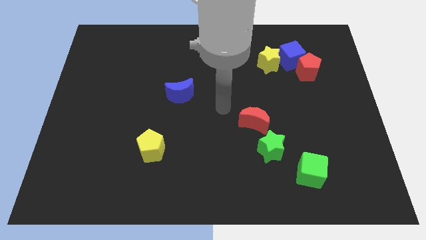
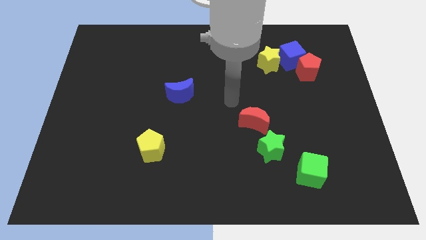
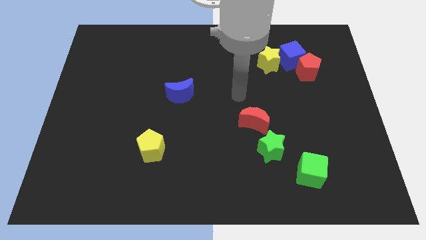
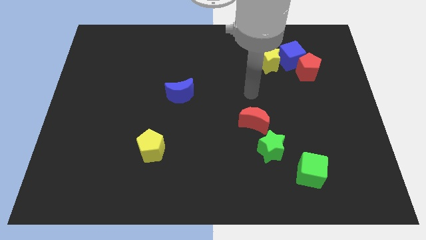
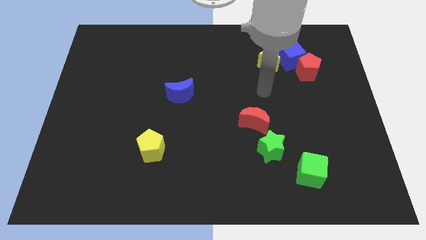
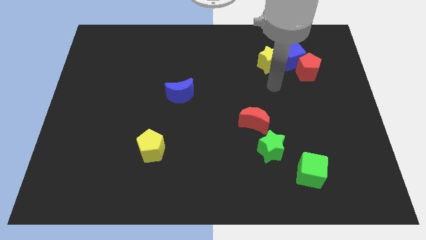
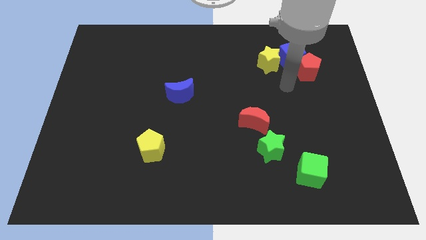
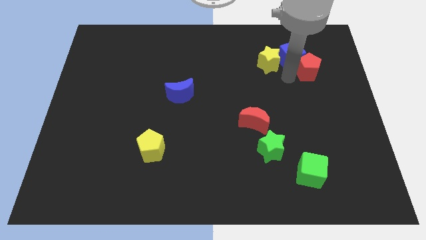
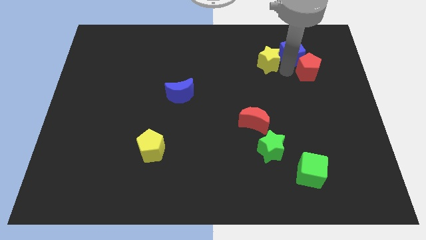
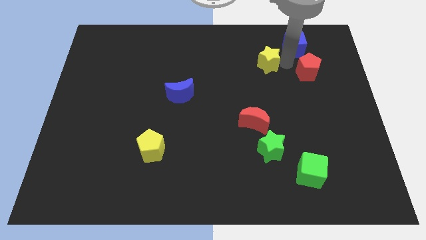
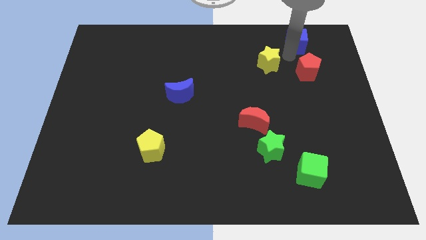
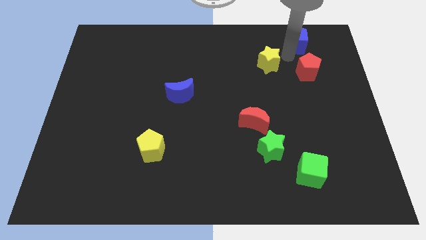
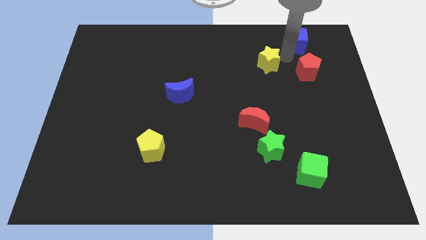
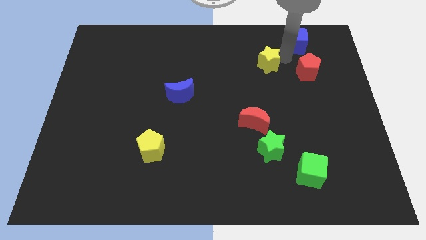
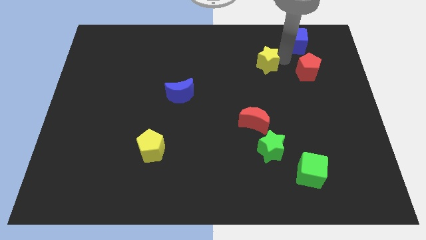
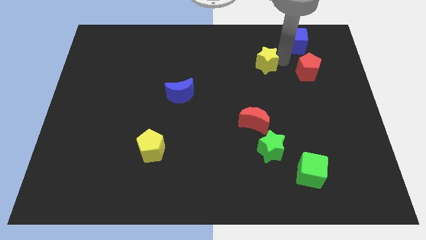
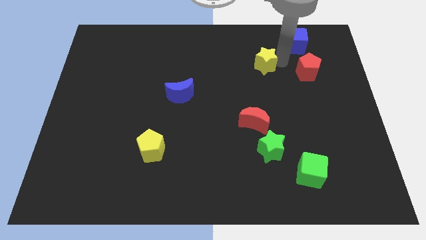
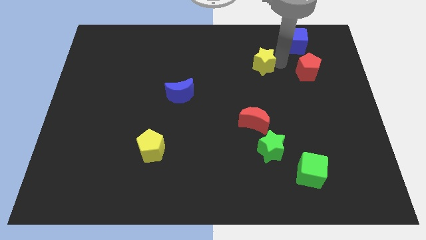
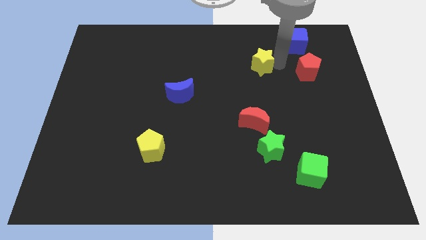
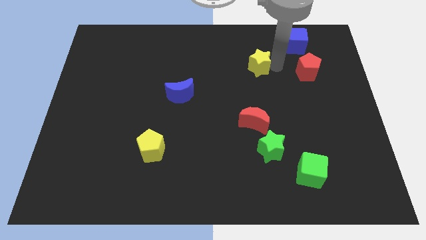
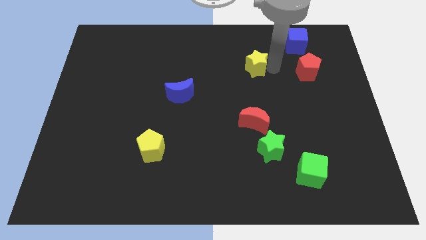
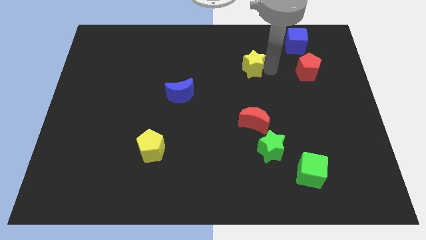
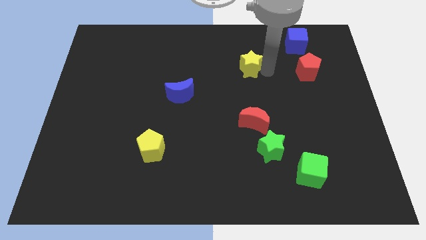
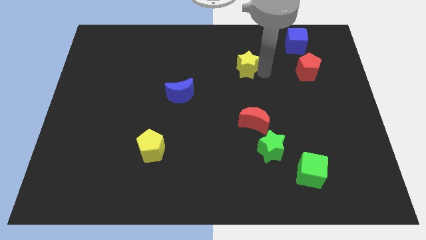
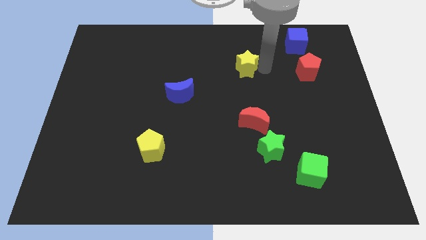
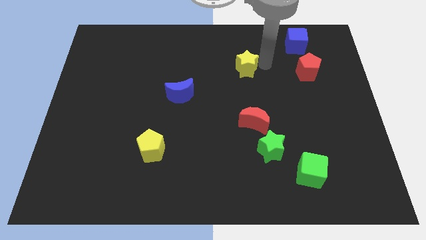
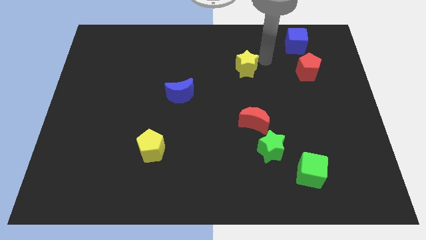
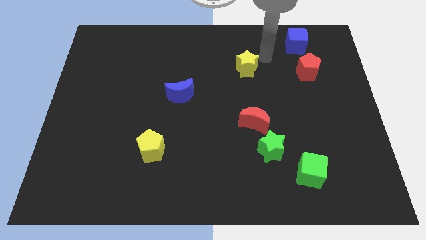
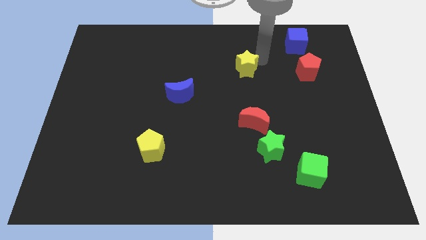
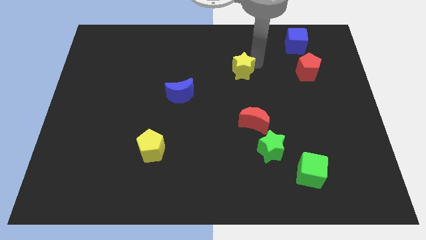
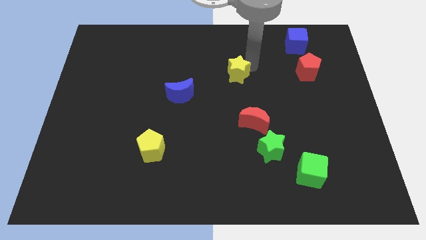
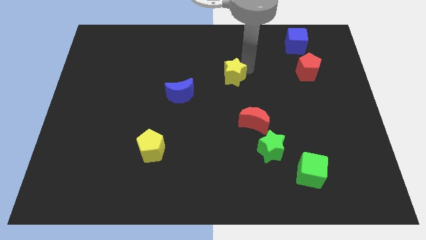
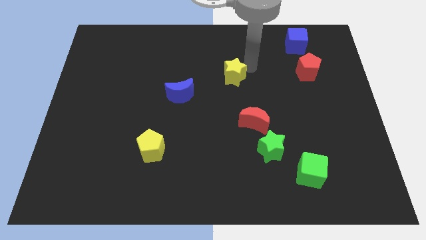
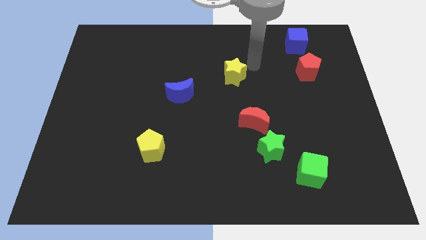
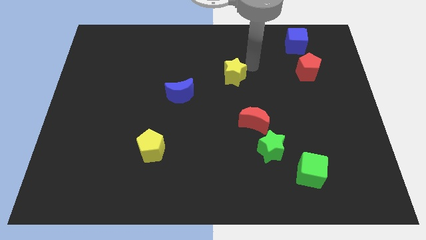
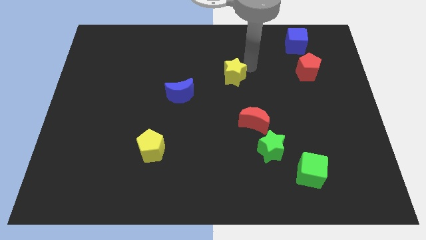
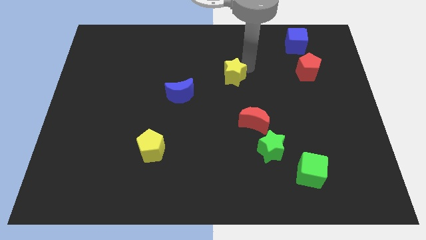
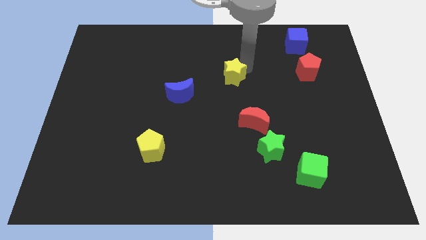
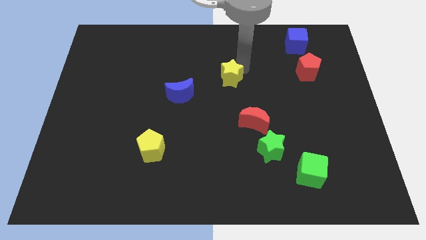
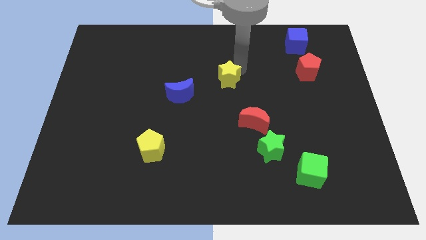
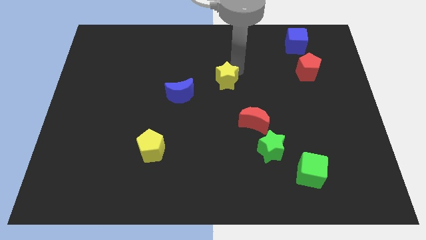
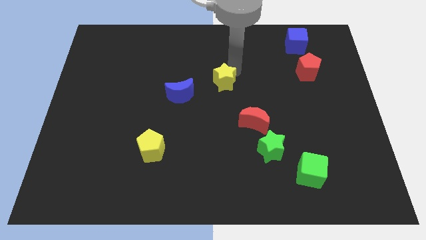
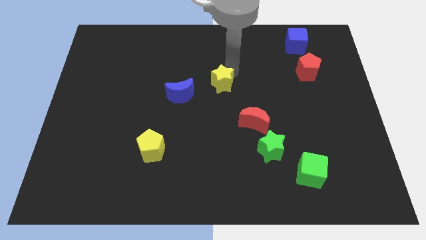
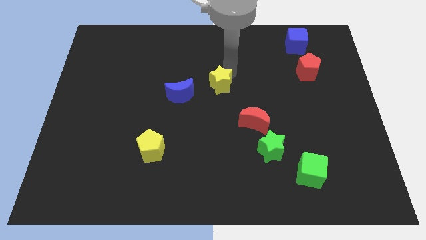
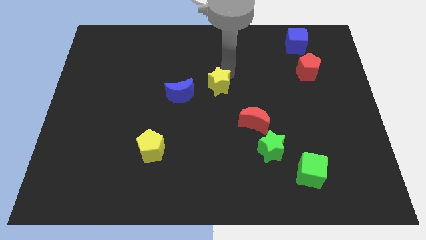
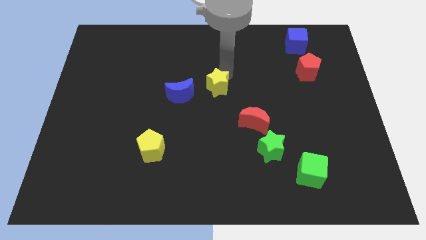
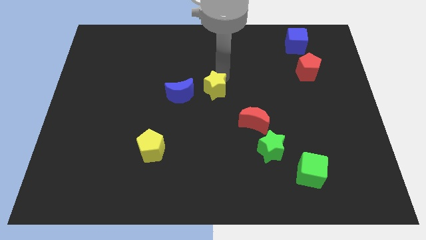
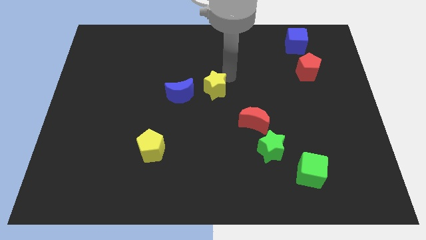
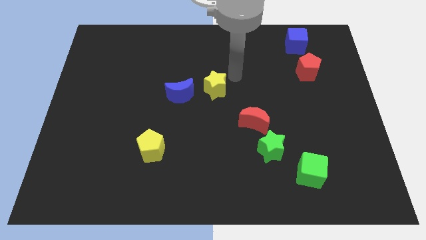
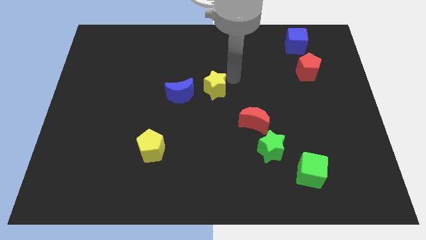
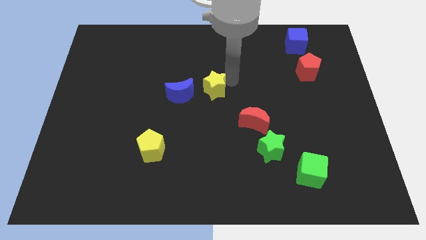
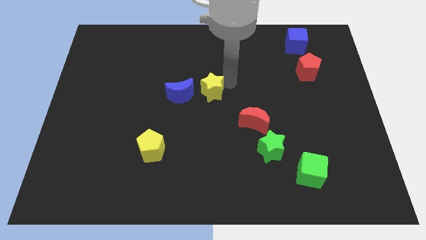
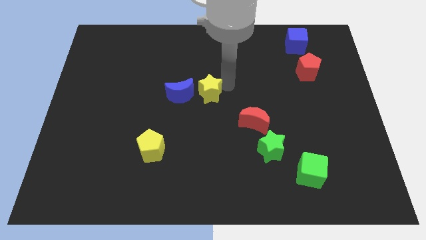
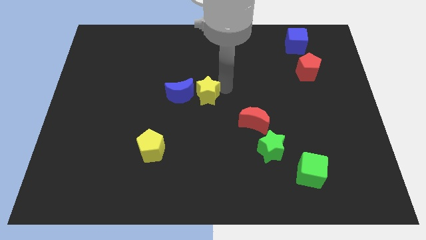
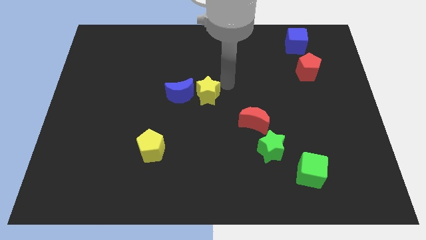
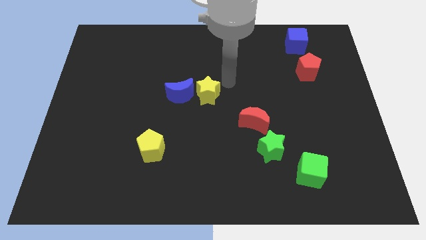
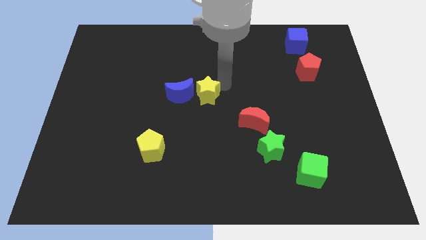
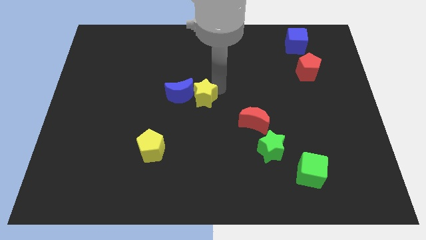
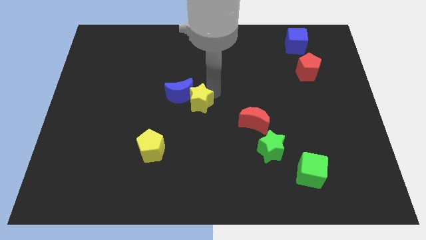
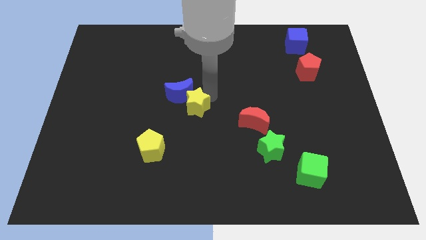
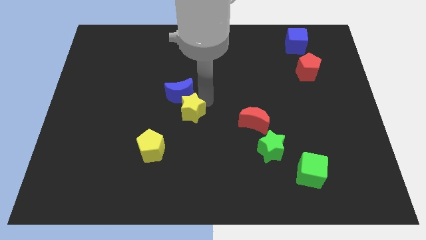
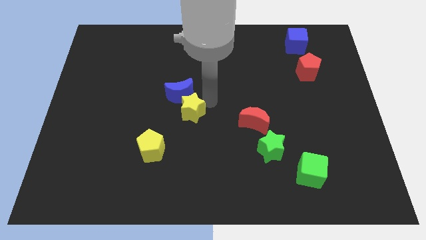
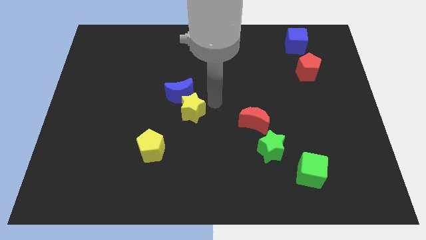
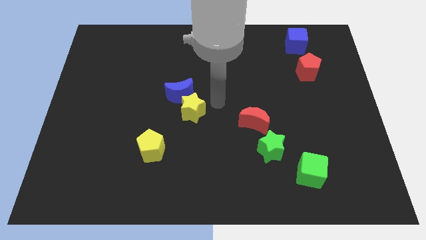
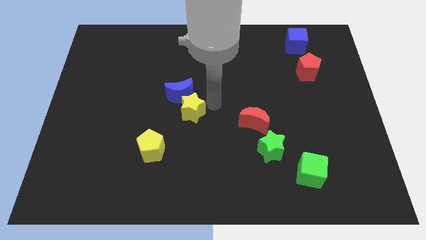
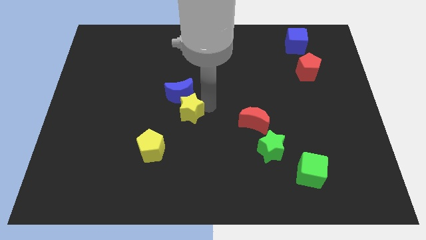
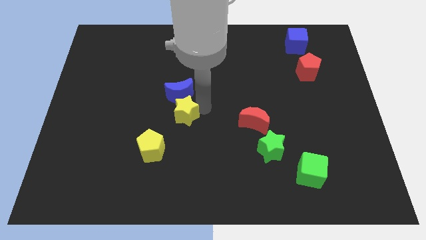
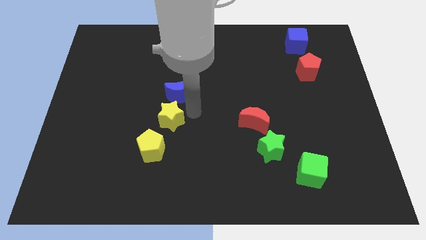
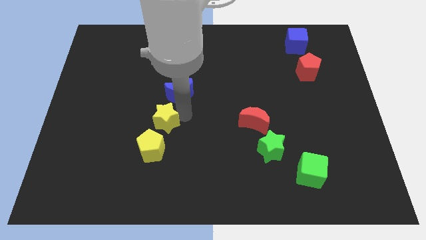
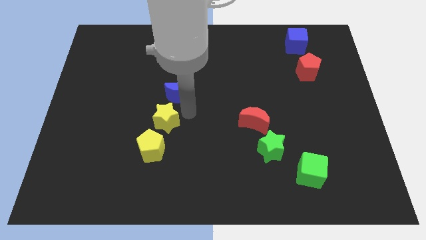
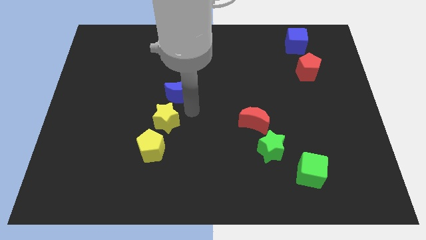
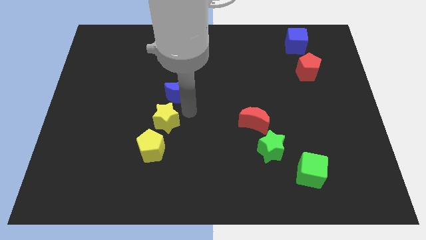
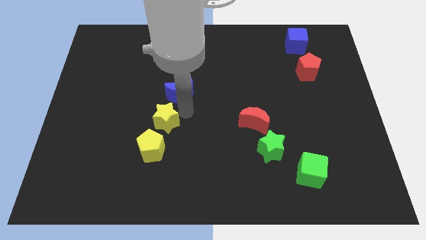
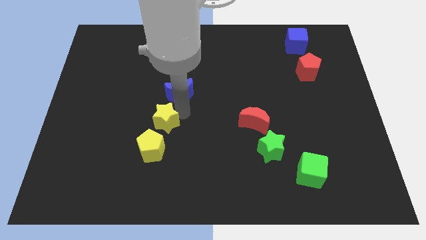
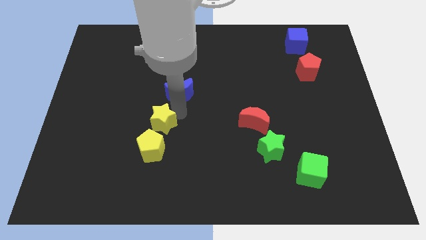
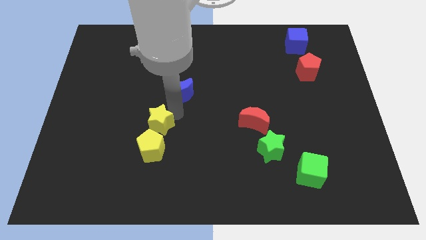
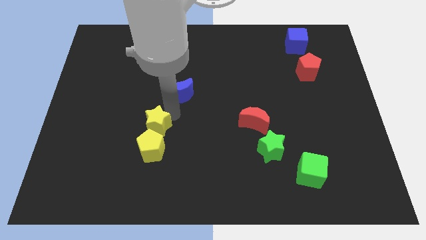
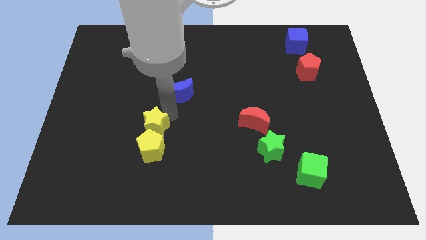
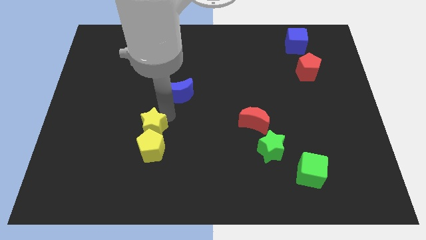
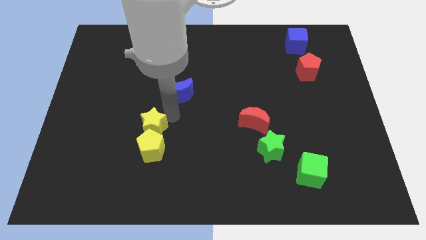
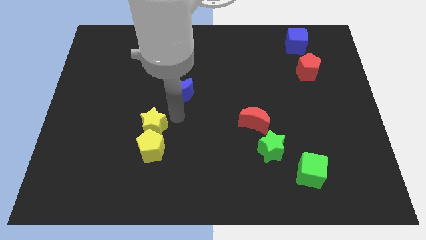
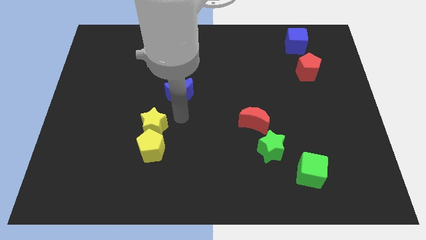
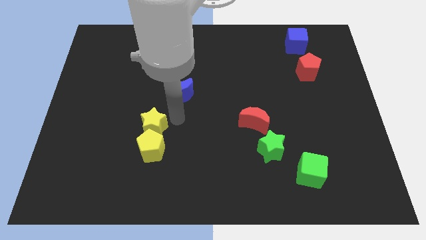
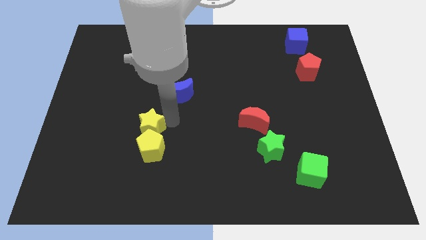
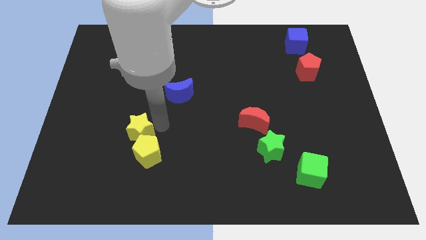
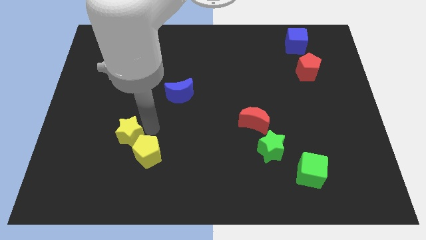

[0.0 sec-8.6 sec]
slide the yellow star to the left of the yellow pentagon
